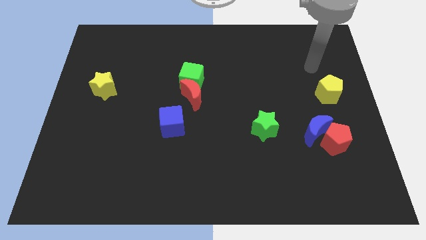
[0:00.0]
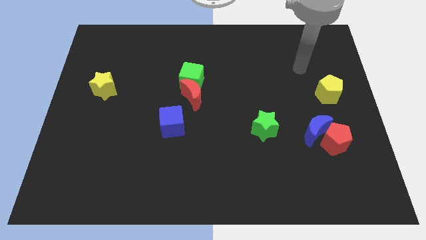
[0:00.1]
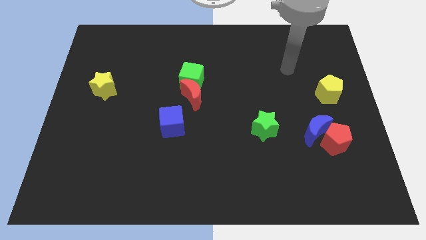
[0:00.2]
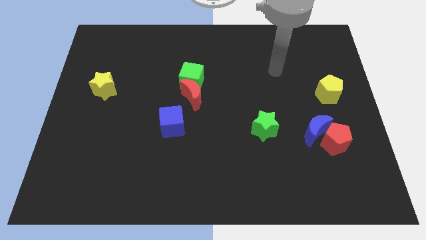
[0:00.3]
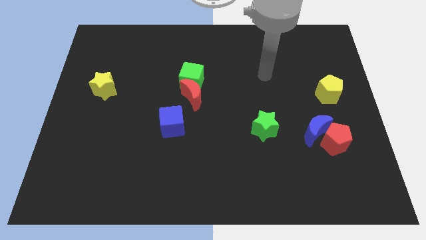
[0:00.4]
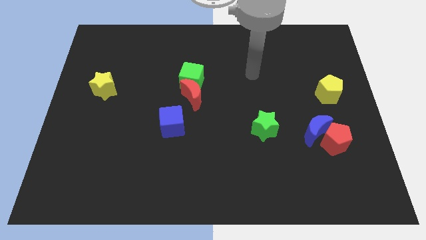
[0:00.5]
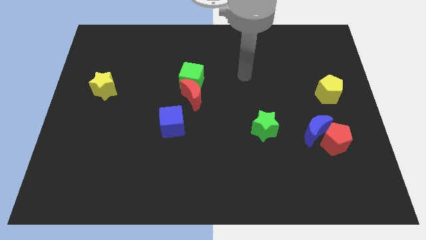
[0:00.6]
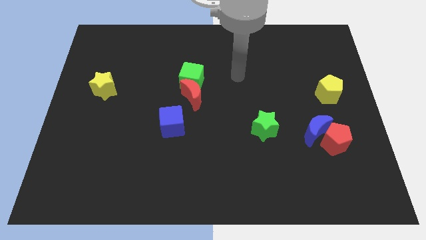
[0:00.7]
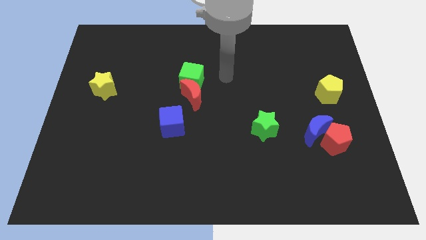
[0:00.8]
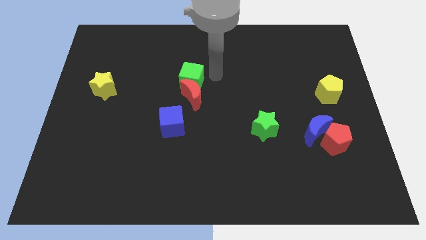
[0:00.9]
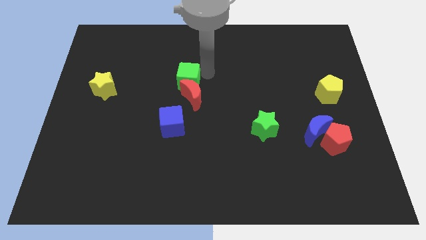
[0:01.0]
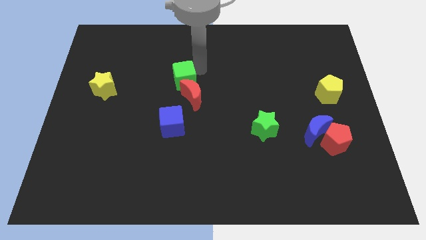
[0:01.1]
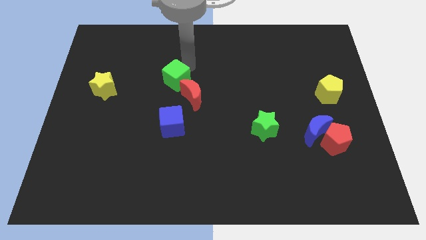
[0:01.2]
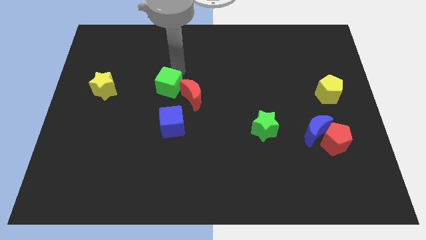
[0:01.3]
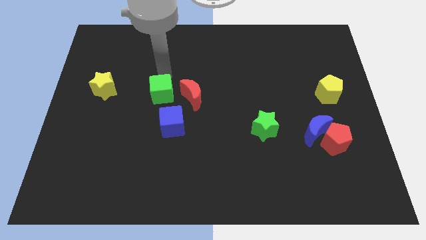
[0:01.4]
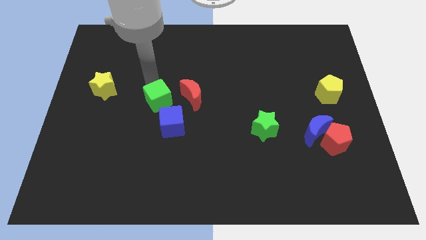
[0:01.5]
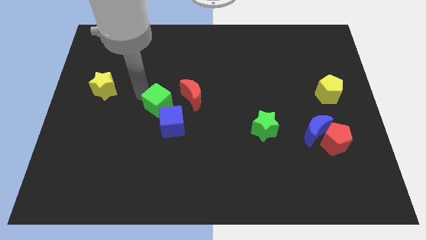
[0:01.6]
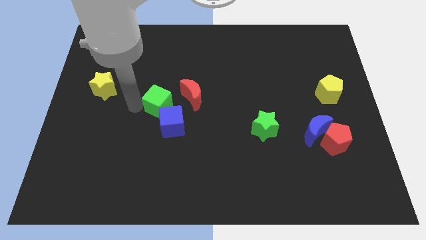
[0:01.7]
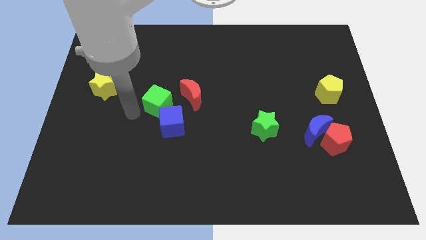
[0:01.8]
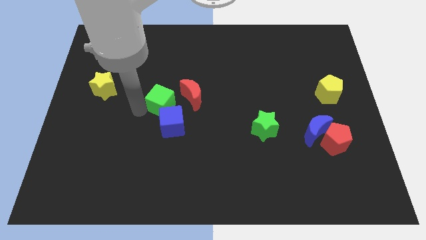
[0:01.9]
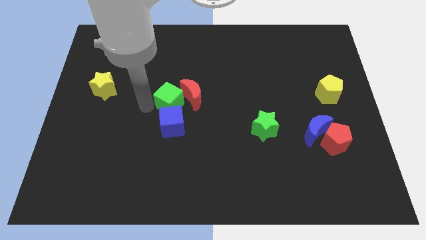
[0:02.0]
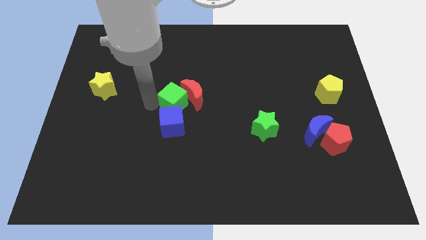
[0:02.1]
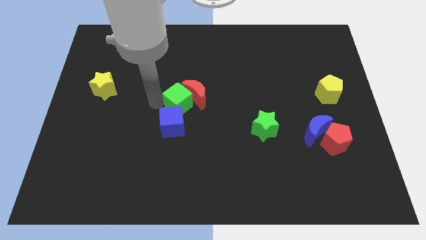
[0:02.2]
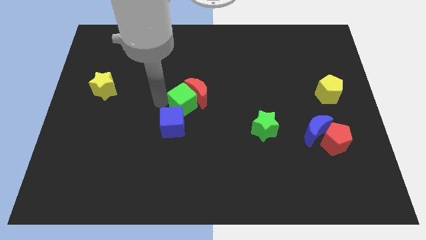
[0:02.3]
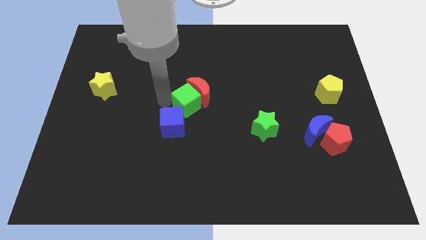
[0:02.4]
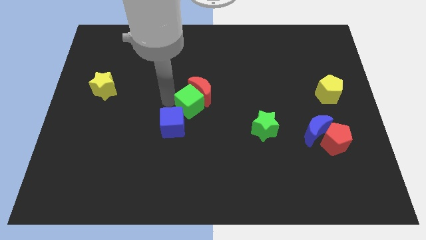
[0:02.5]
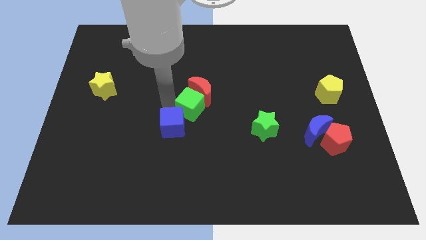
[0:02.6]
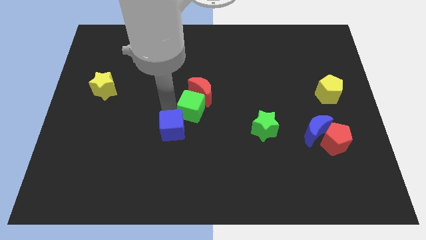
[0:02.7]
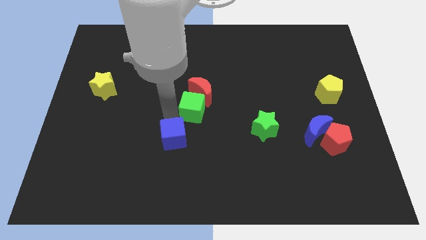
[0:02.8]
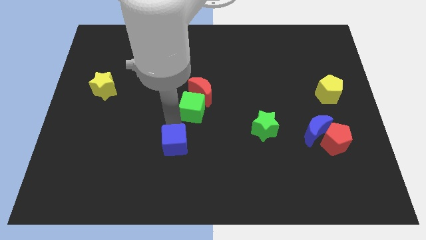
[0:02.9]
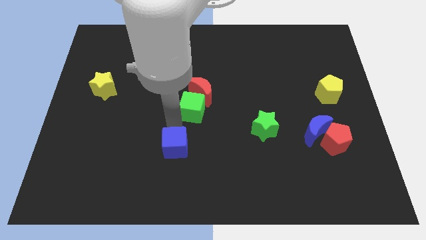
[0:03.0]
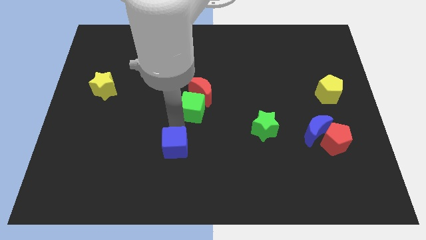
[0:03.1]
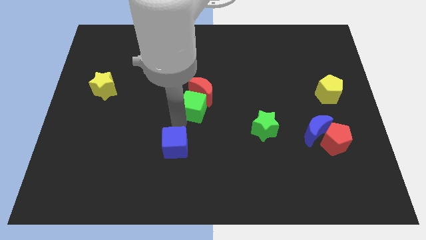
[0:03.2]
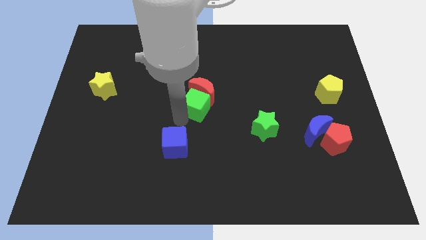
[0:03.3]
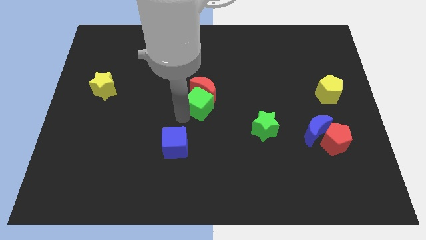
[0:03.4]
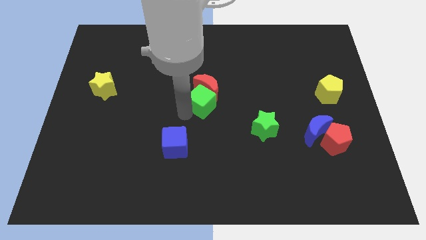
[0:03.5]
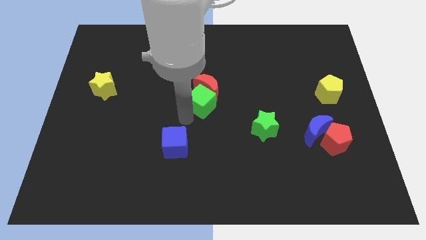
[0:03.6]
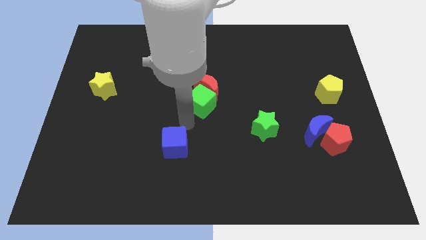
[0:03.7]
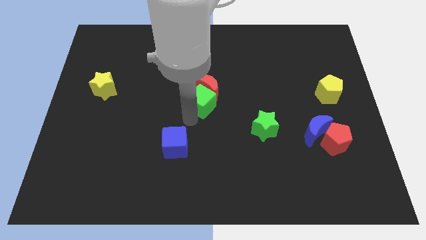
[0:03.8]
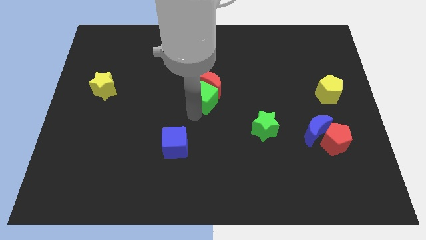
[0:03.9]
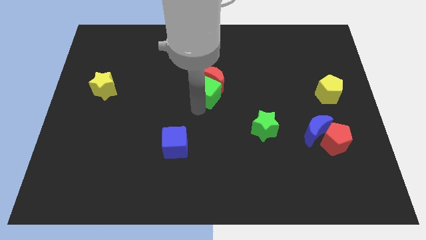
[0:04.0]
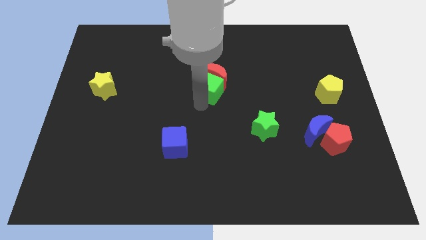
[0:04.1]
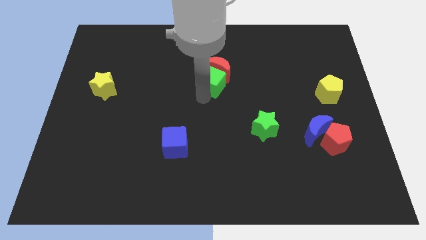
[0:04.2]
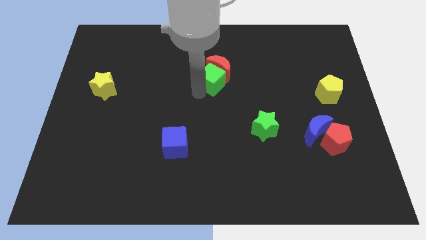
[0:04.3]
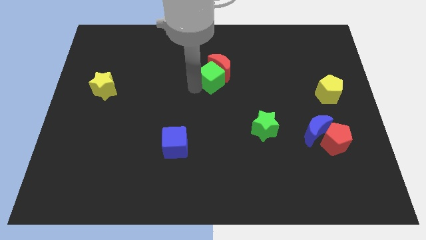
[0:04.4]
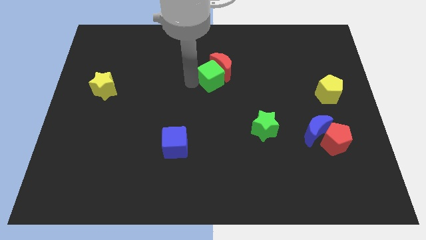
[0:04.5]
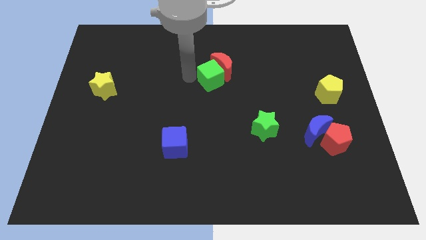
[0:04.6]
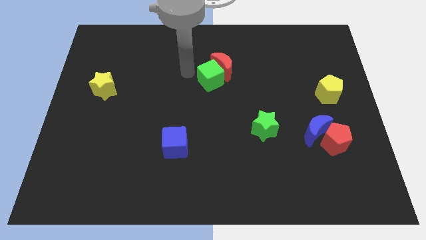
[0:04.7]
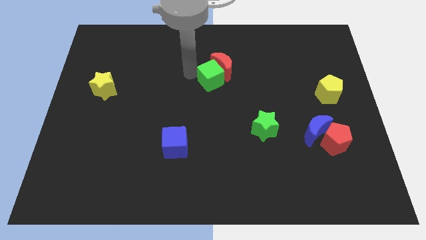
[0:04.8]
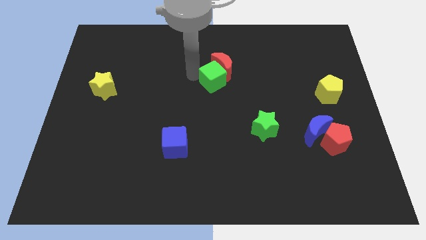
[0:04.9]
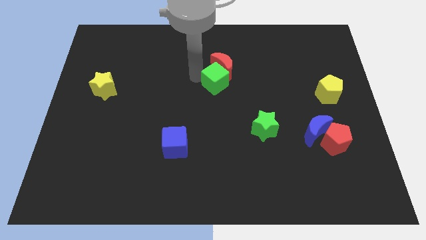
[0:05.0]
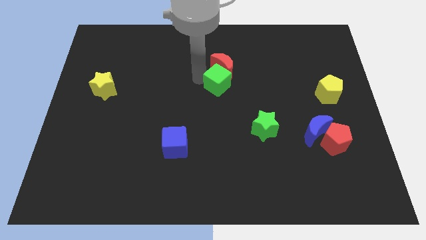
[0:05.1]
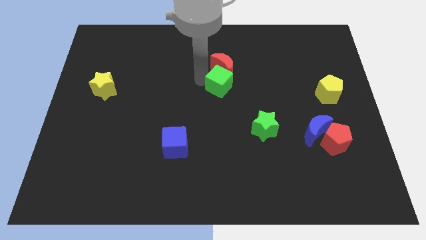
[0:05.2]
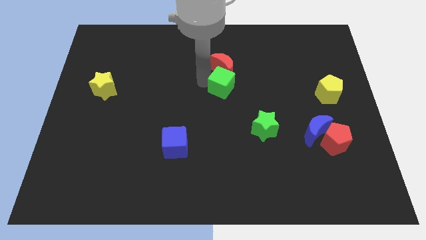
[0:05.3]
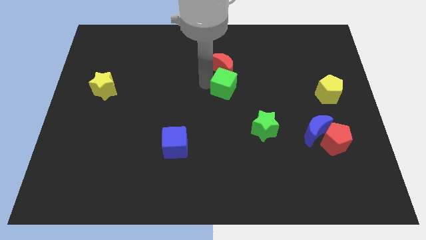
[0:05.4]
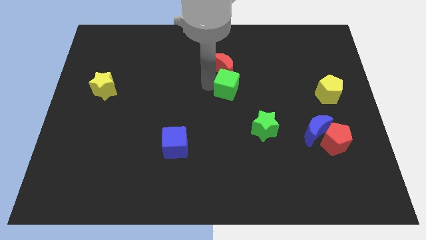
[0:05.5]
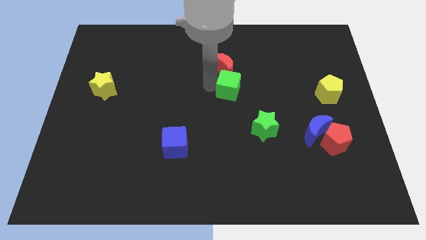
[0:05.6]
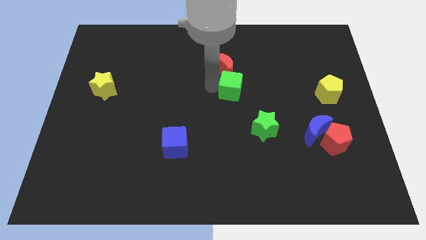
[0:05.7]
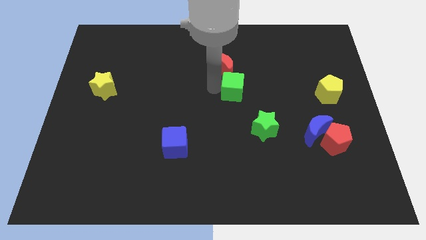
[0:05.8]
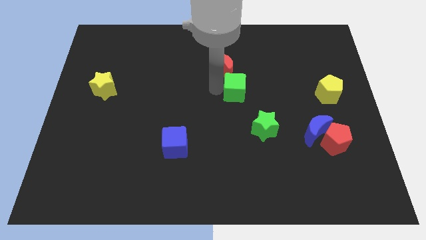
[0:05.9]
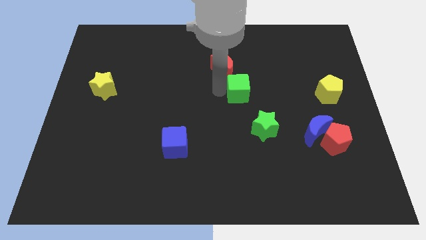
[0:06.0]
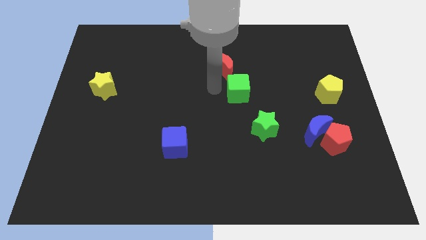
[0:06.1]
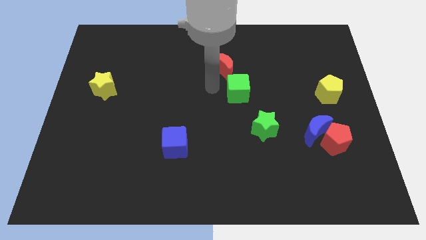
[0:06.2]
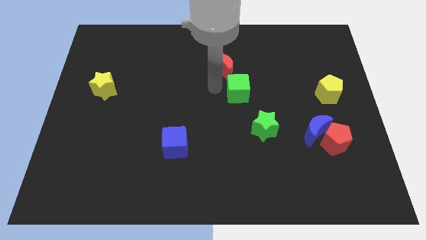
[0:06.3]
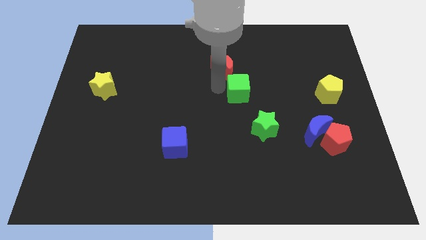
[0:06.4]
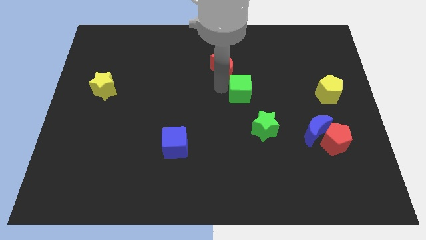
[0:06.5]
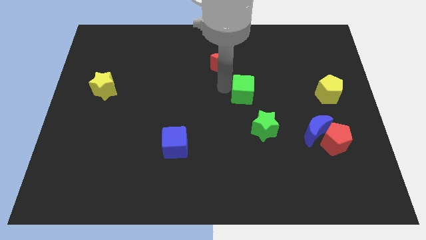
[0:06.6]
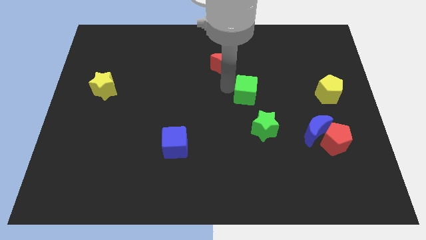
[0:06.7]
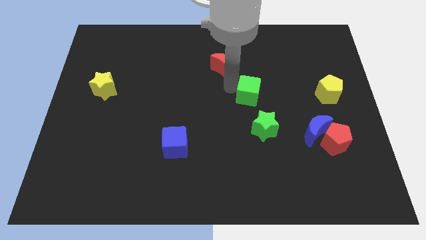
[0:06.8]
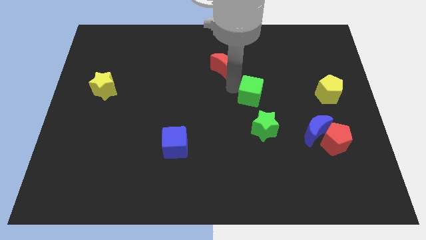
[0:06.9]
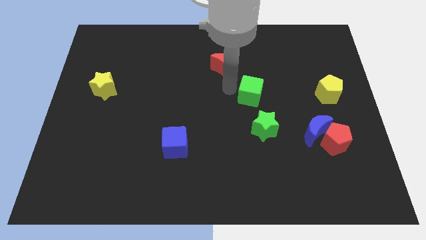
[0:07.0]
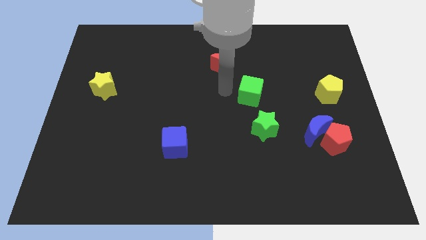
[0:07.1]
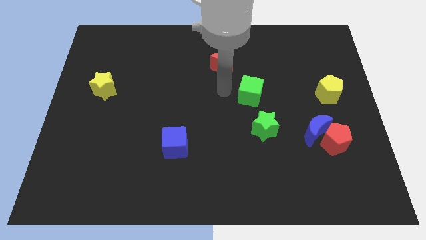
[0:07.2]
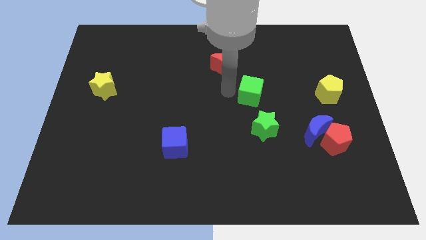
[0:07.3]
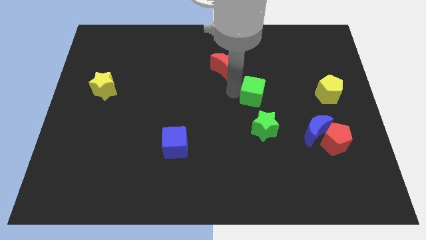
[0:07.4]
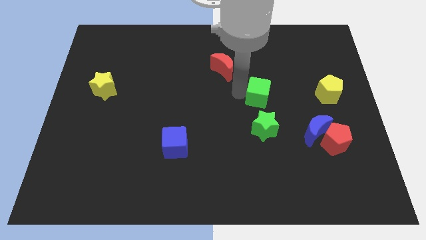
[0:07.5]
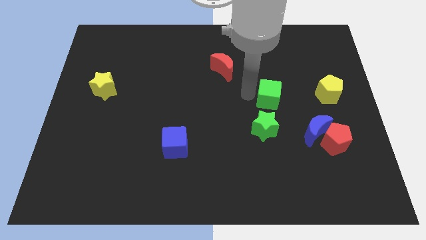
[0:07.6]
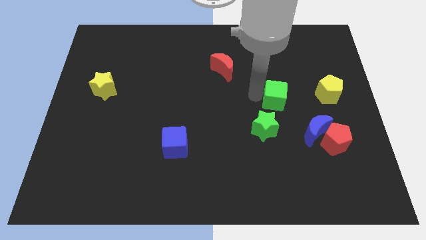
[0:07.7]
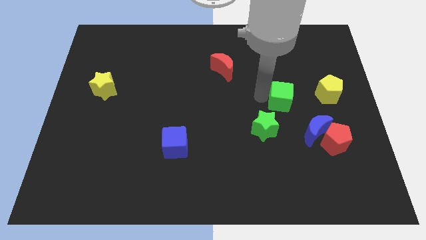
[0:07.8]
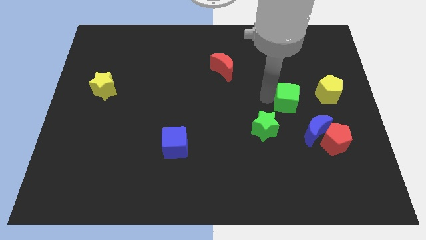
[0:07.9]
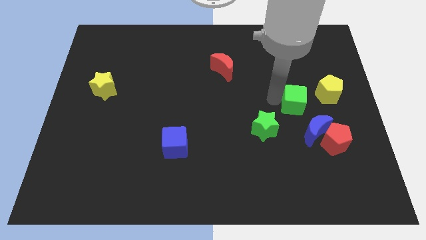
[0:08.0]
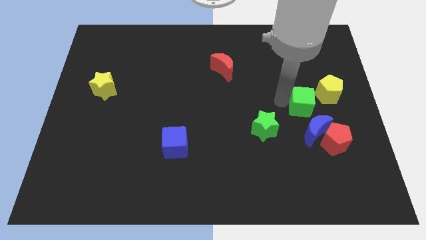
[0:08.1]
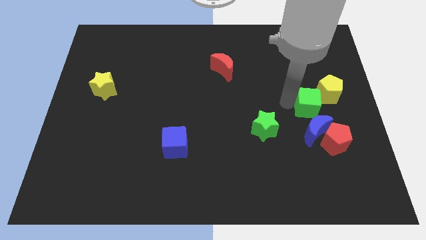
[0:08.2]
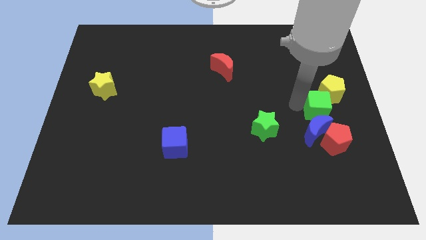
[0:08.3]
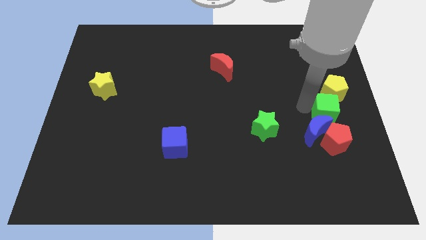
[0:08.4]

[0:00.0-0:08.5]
push the green cube to the right side
